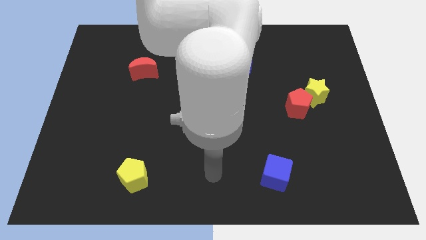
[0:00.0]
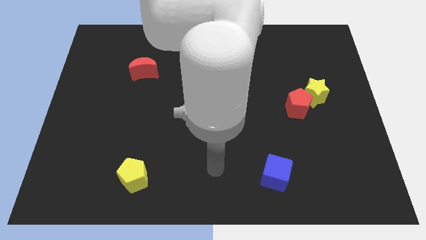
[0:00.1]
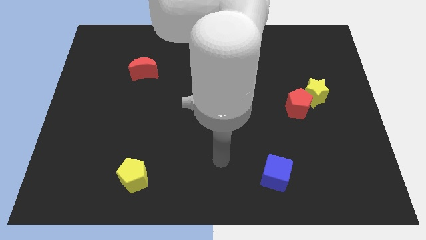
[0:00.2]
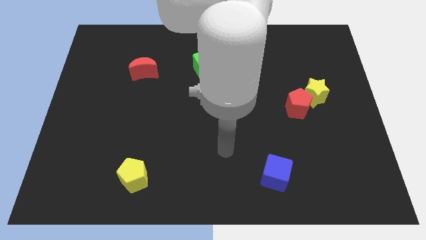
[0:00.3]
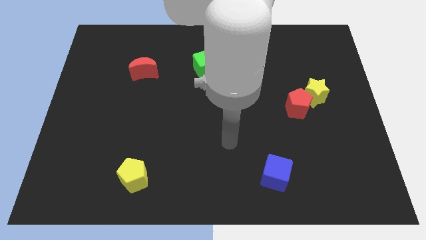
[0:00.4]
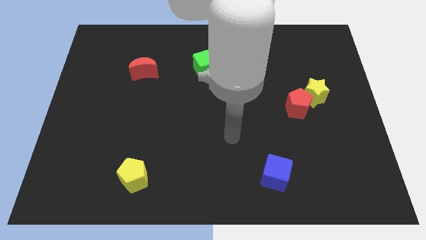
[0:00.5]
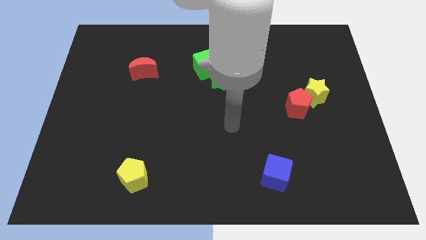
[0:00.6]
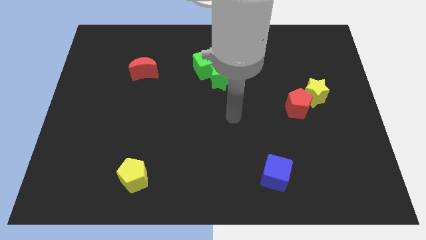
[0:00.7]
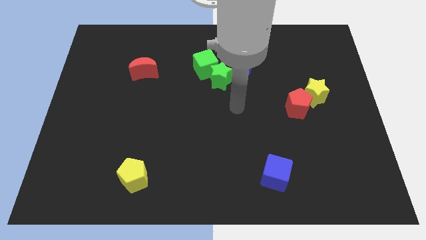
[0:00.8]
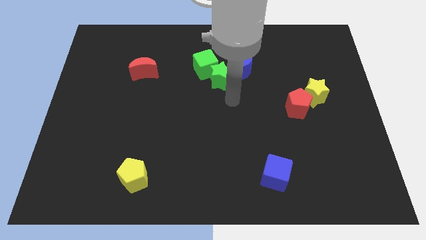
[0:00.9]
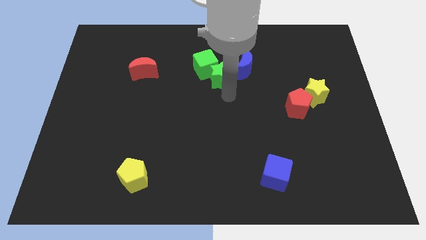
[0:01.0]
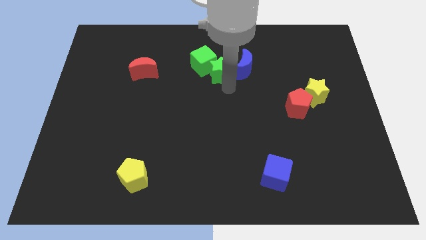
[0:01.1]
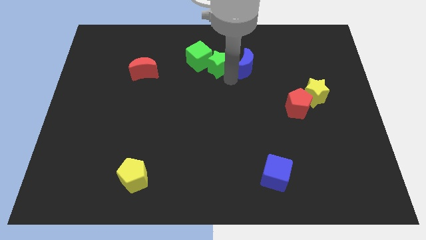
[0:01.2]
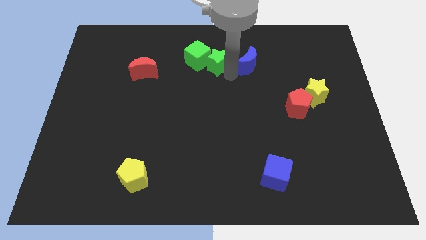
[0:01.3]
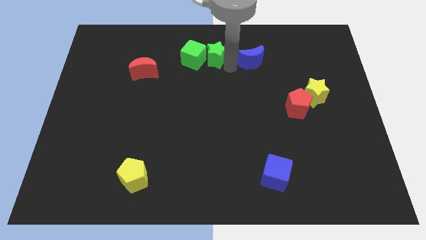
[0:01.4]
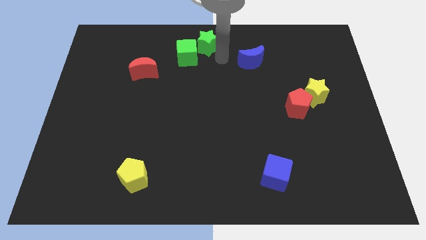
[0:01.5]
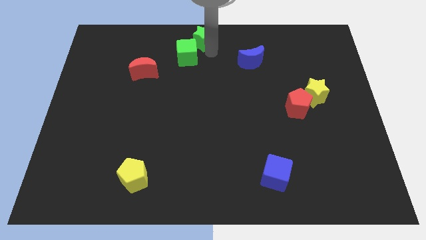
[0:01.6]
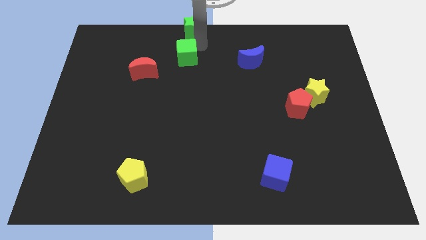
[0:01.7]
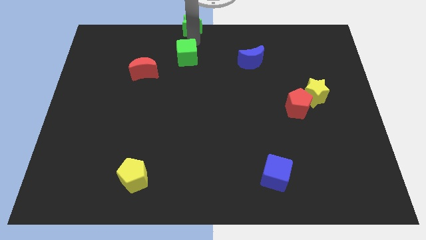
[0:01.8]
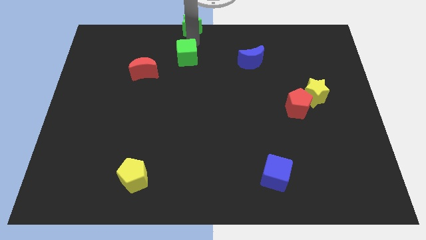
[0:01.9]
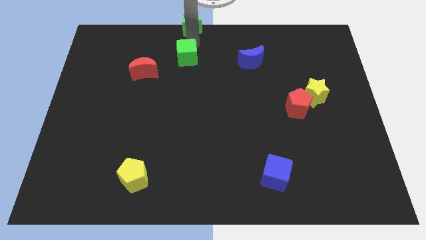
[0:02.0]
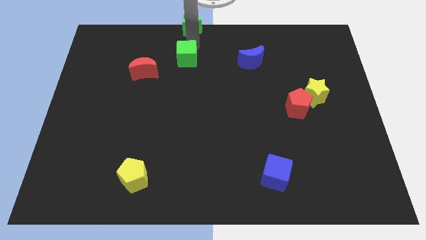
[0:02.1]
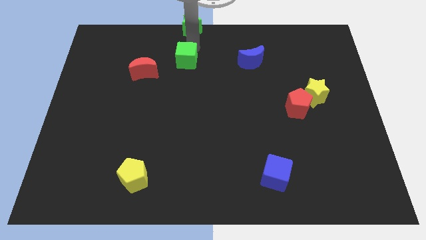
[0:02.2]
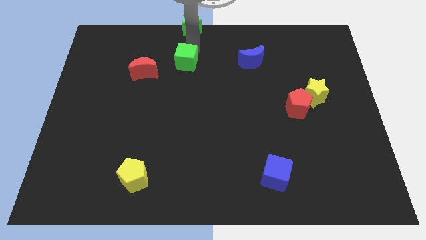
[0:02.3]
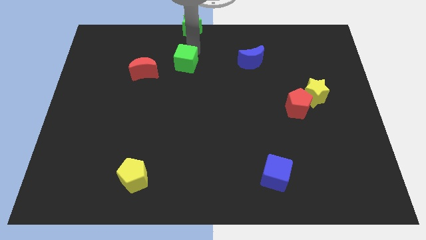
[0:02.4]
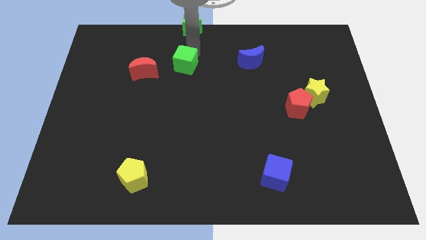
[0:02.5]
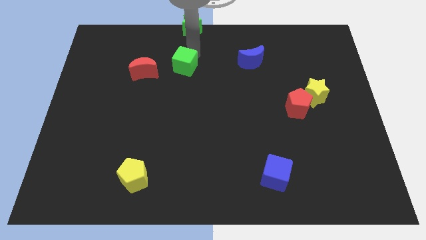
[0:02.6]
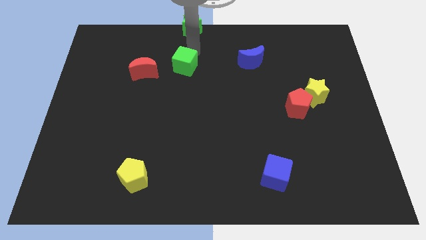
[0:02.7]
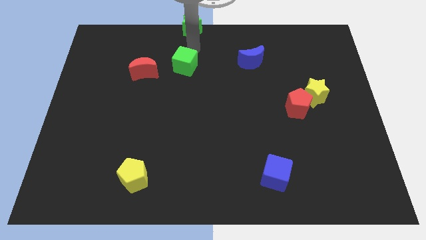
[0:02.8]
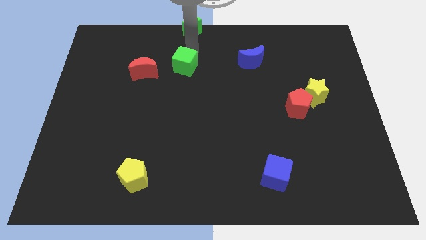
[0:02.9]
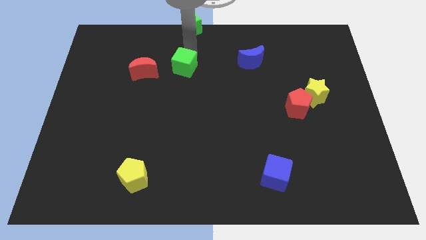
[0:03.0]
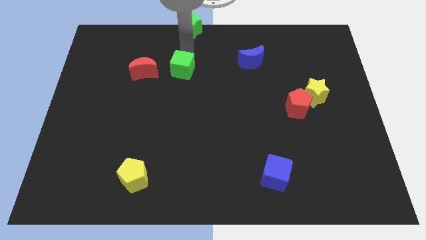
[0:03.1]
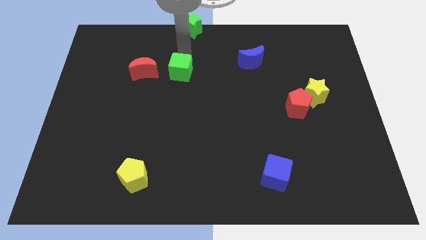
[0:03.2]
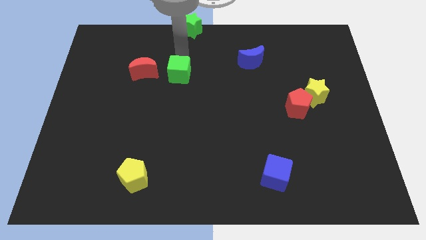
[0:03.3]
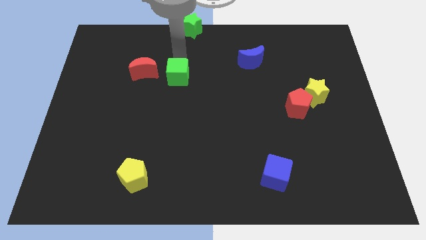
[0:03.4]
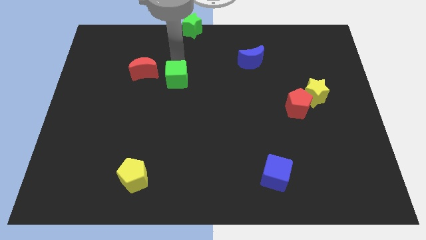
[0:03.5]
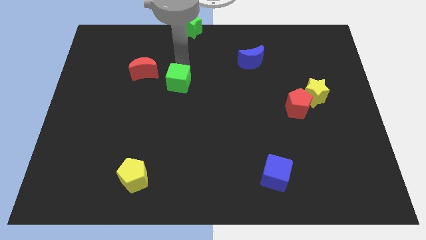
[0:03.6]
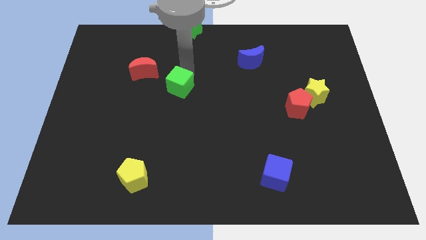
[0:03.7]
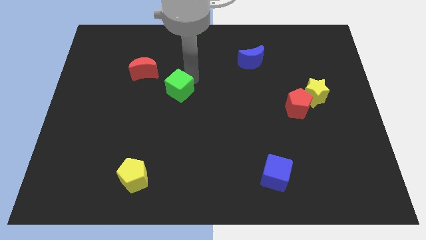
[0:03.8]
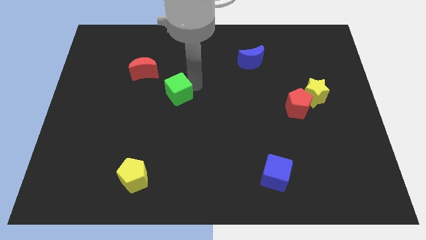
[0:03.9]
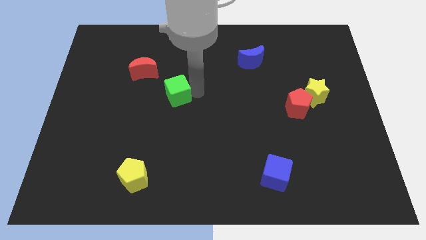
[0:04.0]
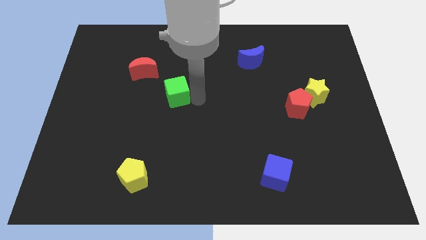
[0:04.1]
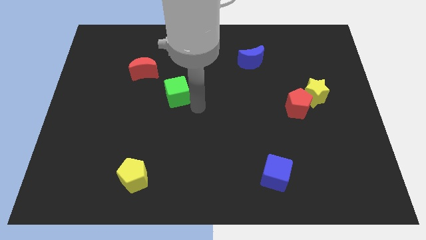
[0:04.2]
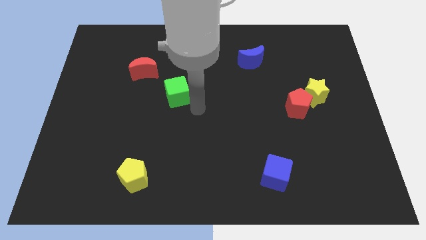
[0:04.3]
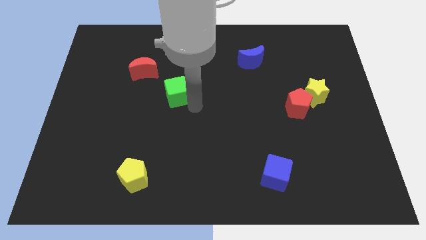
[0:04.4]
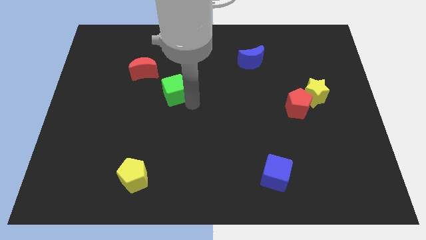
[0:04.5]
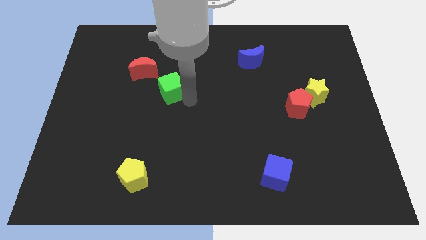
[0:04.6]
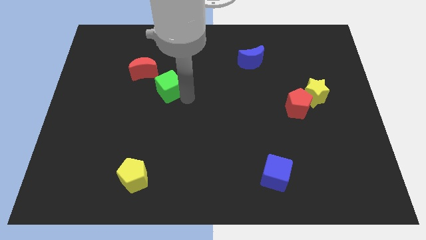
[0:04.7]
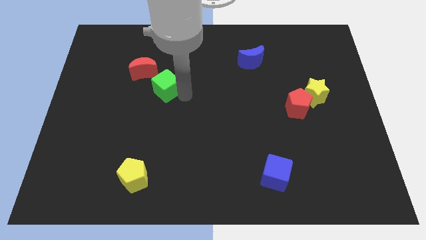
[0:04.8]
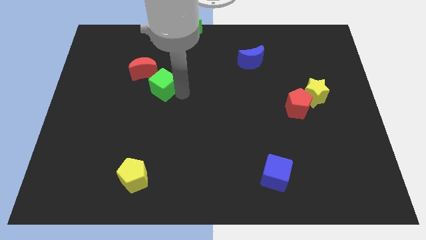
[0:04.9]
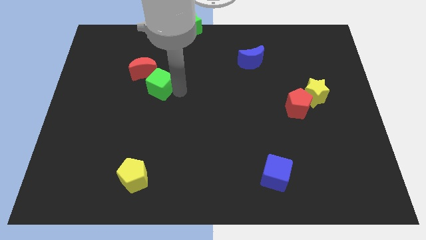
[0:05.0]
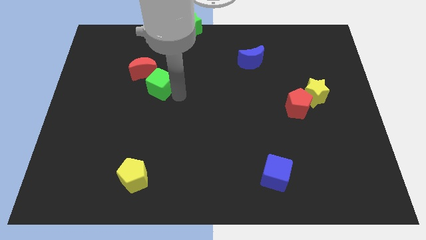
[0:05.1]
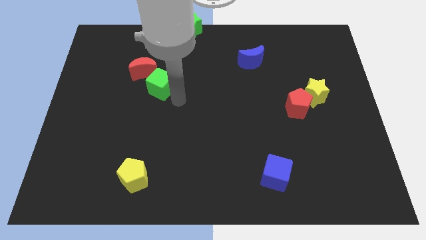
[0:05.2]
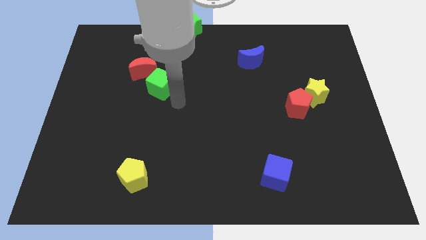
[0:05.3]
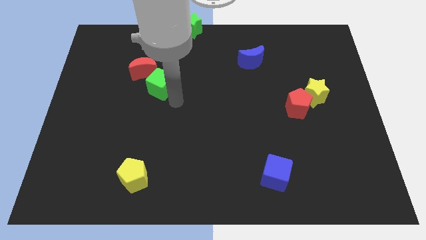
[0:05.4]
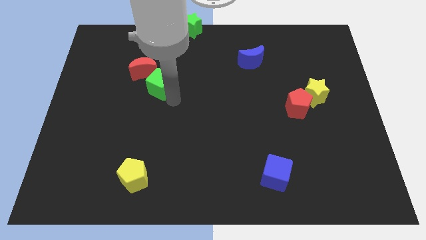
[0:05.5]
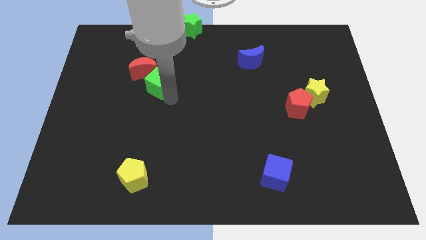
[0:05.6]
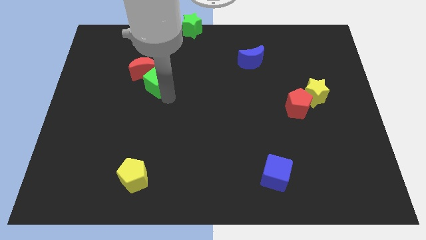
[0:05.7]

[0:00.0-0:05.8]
push the green cube close to the red moon

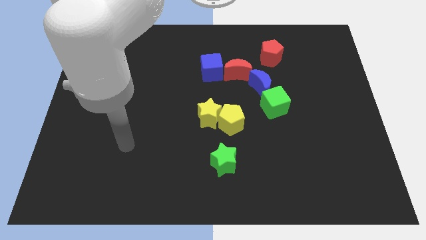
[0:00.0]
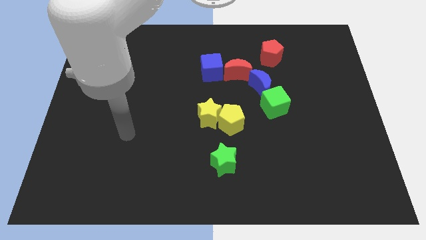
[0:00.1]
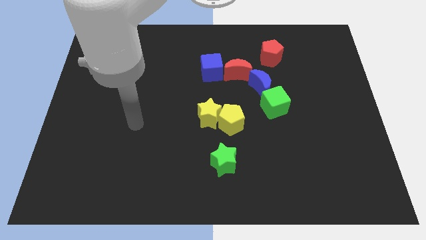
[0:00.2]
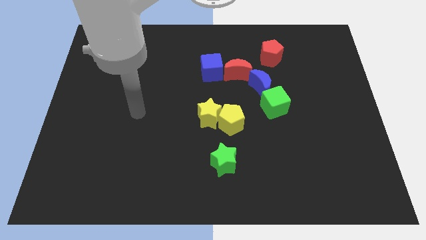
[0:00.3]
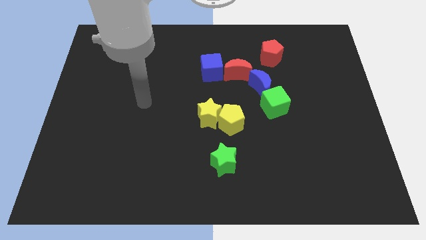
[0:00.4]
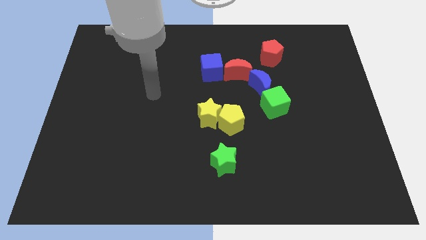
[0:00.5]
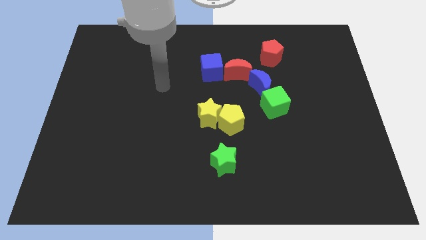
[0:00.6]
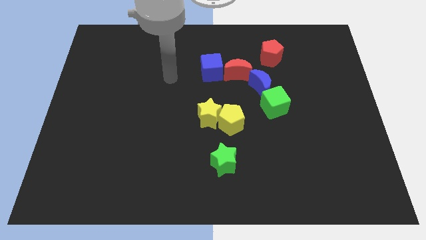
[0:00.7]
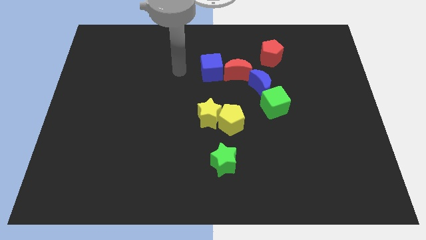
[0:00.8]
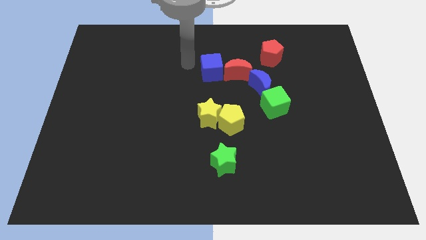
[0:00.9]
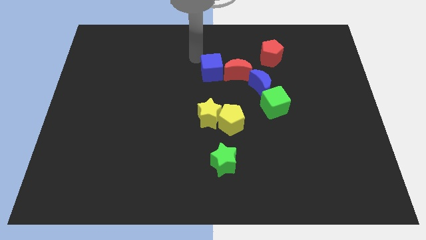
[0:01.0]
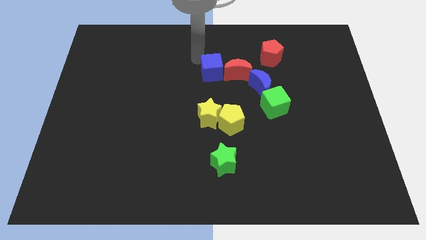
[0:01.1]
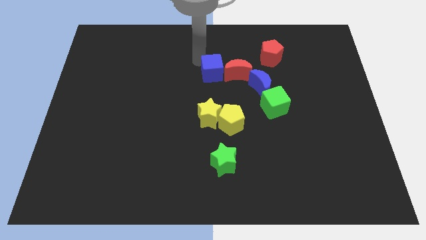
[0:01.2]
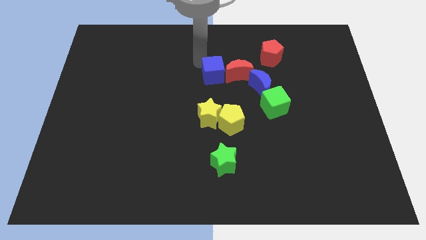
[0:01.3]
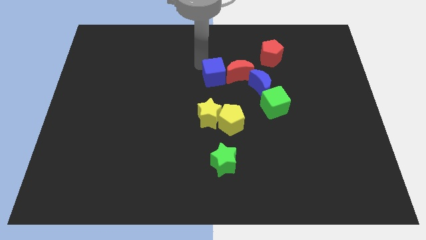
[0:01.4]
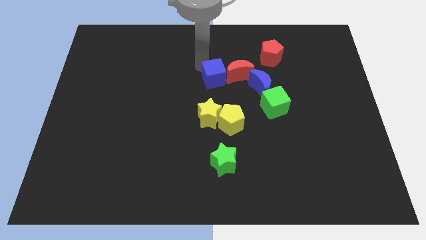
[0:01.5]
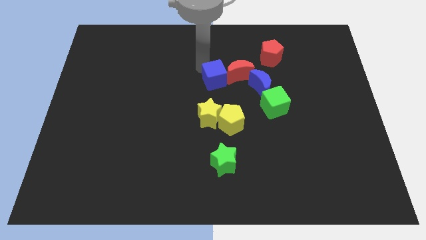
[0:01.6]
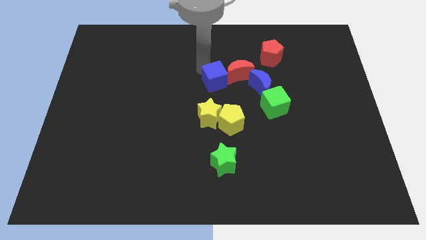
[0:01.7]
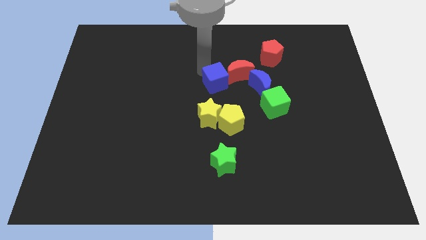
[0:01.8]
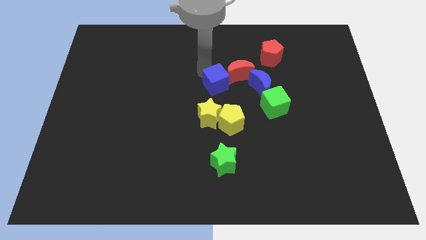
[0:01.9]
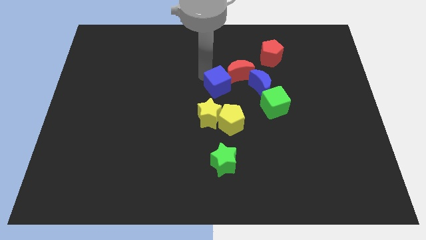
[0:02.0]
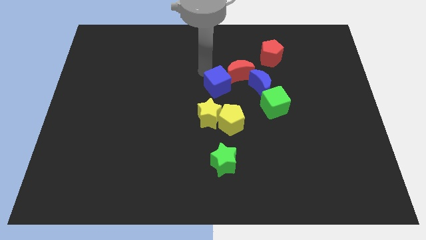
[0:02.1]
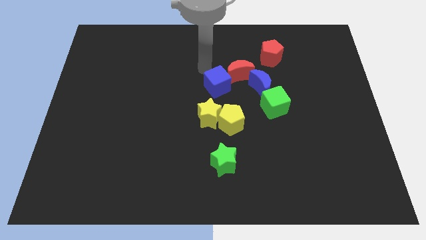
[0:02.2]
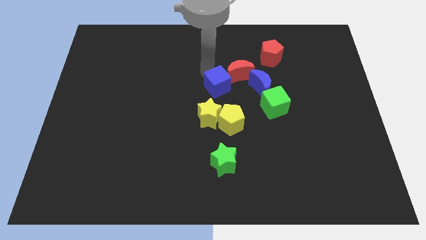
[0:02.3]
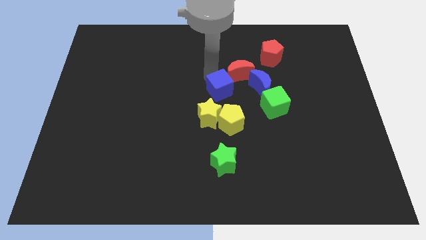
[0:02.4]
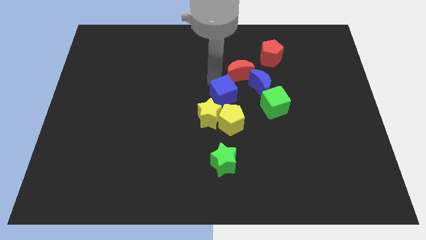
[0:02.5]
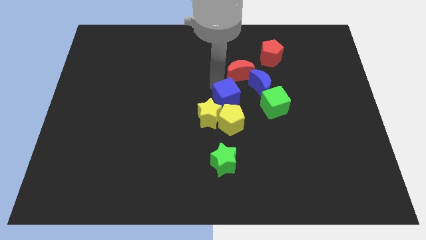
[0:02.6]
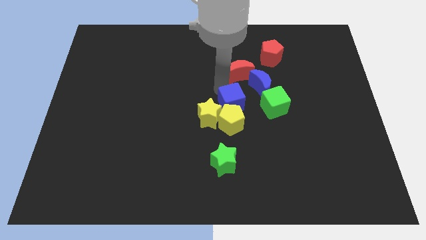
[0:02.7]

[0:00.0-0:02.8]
push the blue cube next to the yellow pentagon
